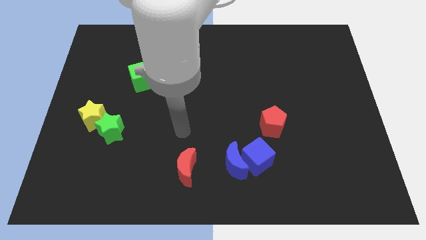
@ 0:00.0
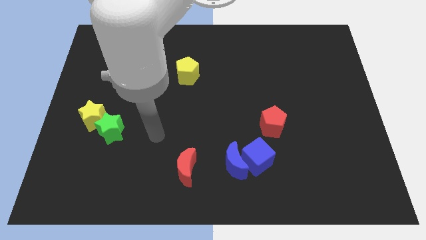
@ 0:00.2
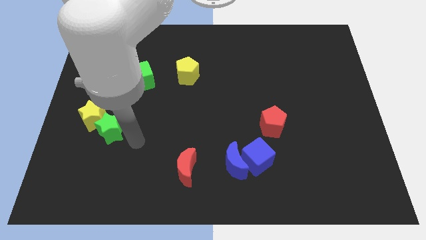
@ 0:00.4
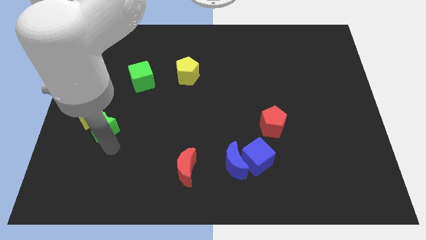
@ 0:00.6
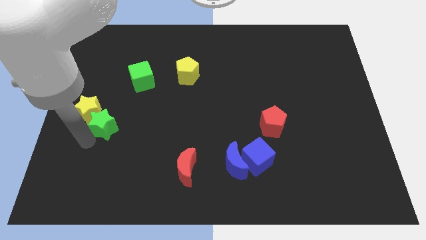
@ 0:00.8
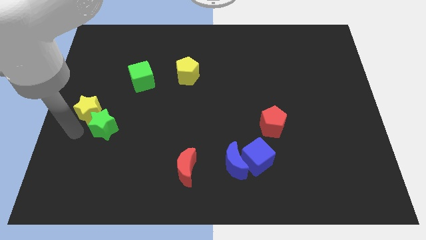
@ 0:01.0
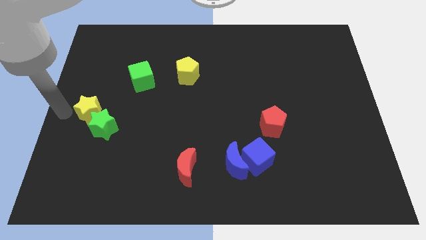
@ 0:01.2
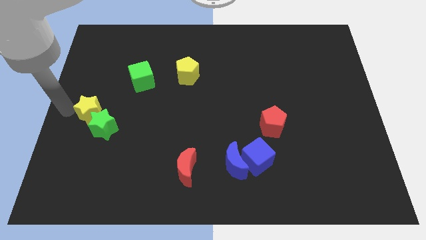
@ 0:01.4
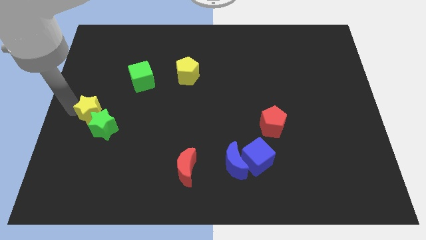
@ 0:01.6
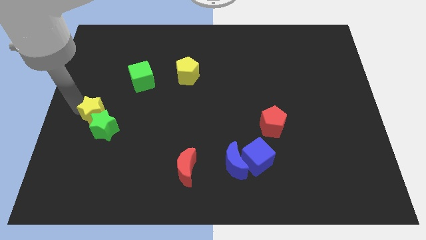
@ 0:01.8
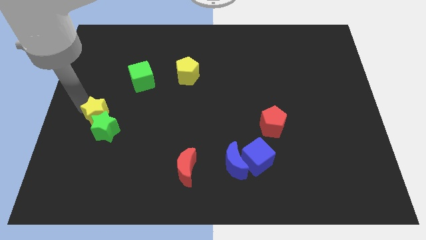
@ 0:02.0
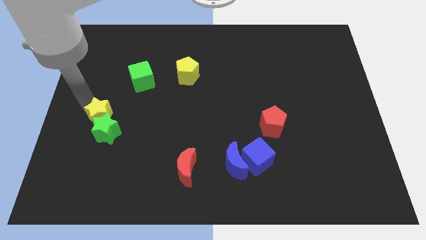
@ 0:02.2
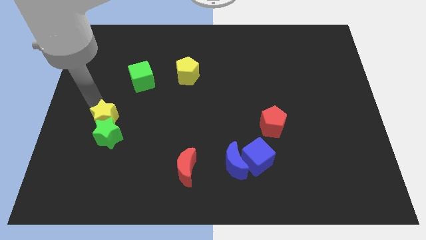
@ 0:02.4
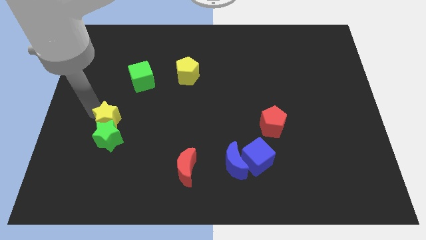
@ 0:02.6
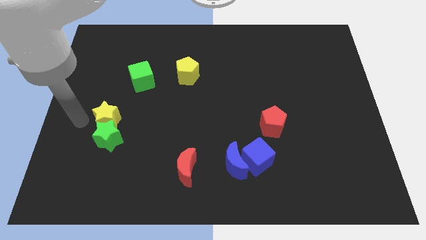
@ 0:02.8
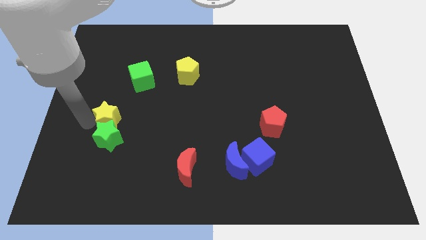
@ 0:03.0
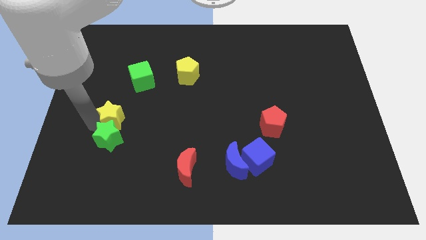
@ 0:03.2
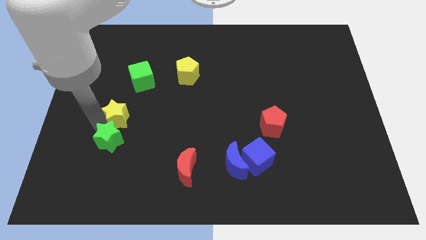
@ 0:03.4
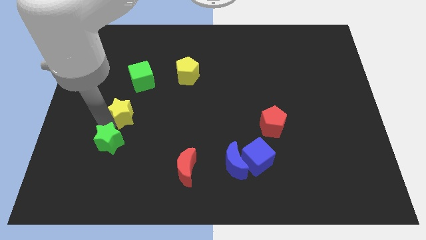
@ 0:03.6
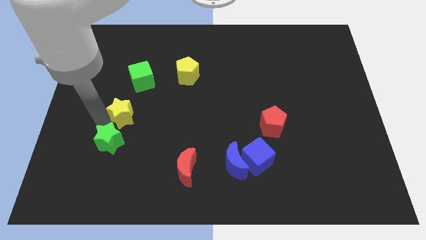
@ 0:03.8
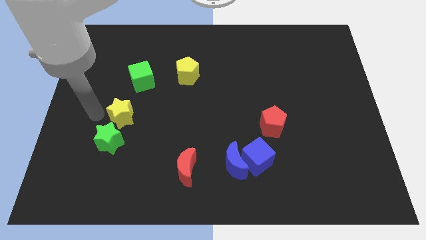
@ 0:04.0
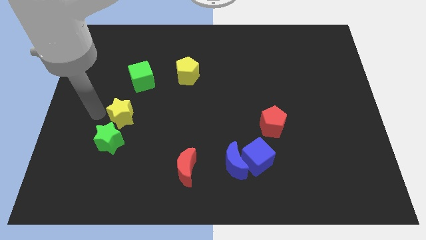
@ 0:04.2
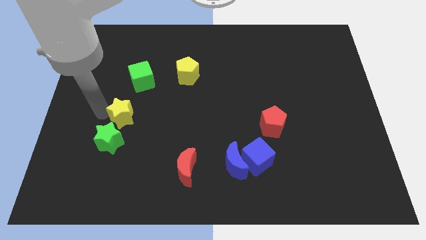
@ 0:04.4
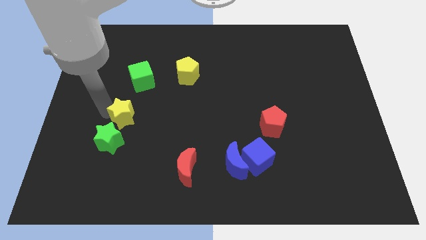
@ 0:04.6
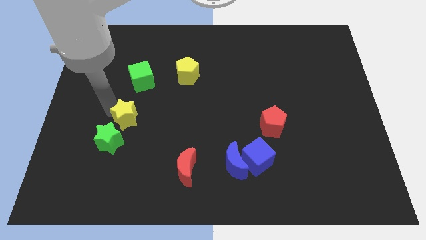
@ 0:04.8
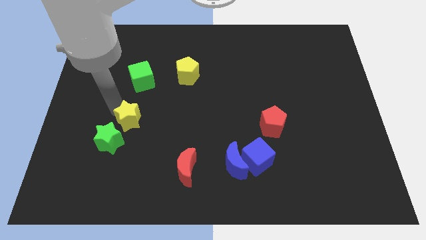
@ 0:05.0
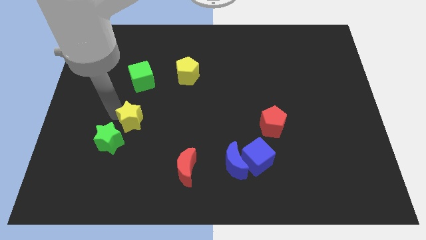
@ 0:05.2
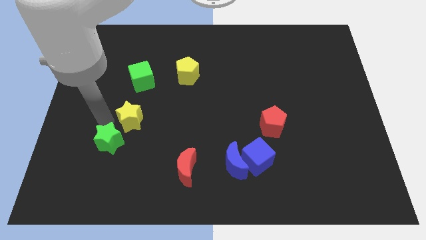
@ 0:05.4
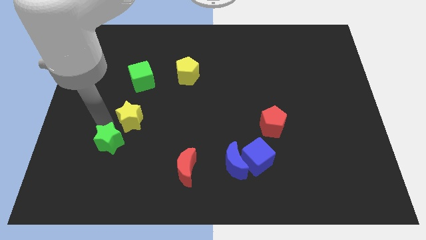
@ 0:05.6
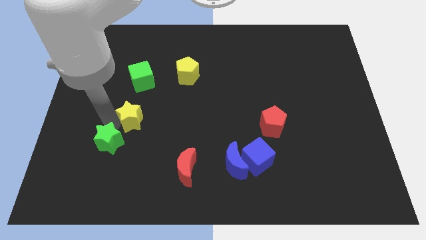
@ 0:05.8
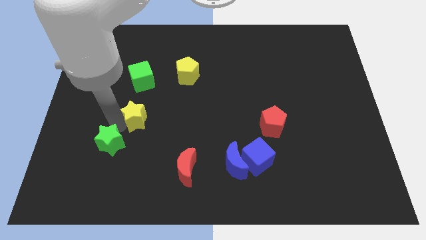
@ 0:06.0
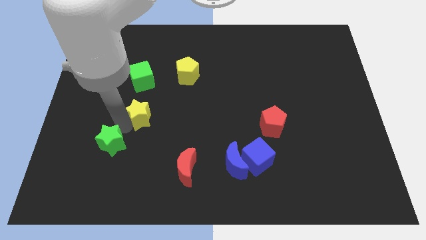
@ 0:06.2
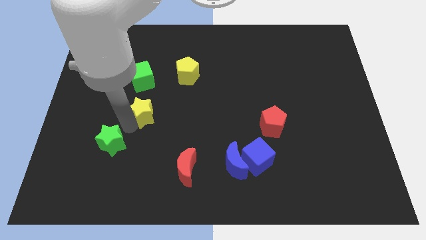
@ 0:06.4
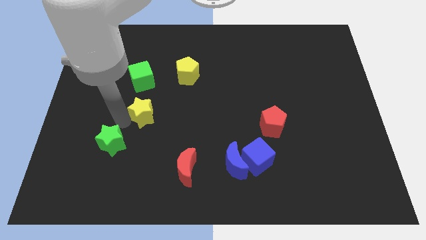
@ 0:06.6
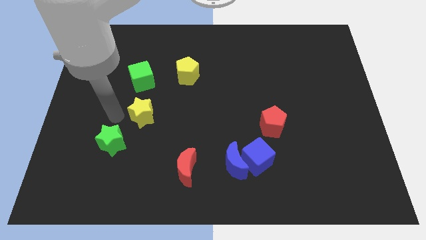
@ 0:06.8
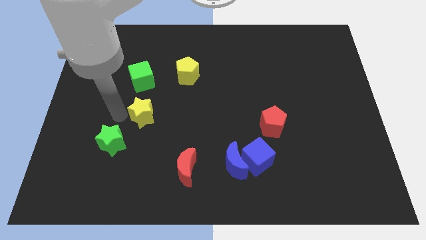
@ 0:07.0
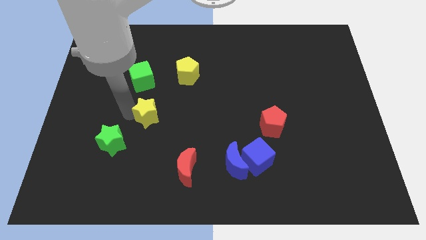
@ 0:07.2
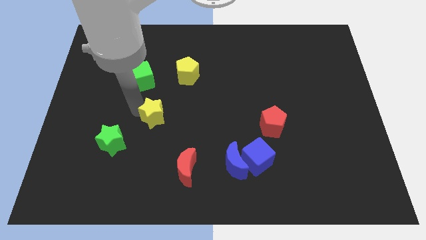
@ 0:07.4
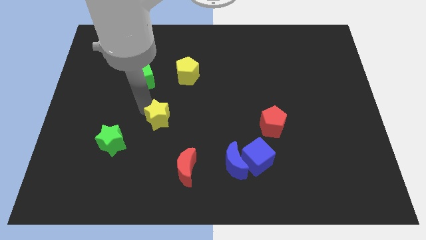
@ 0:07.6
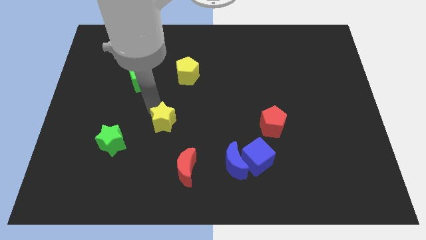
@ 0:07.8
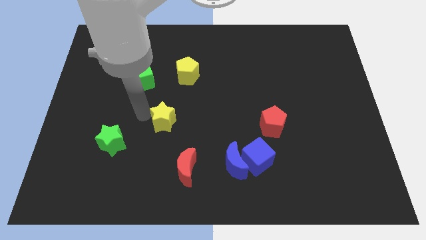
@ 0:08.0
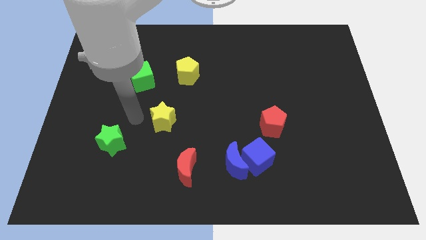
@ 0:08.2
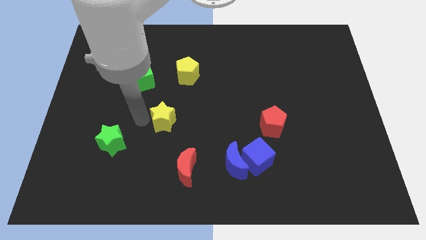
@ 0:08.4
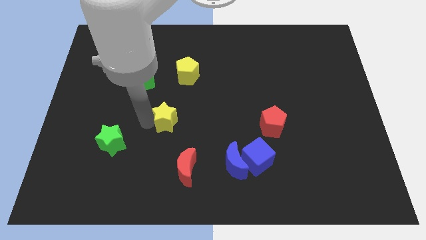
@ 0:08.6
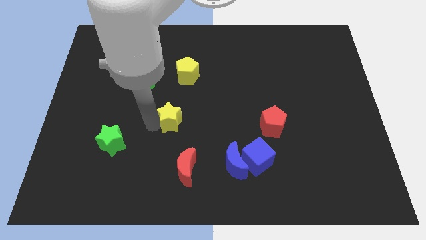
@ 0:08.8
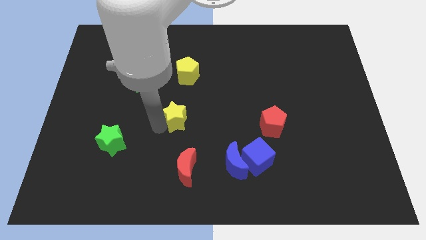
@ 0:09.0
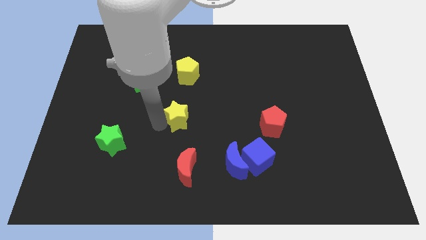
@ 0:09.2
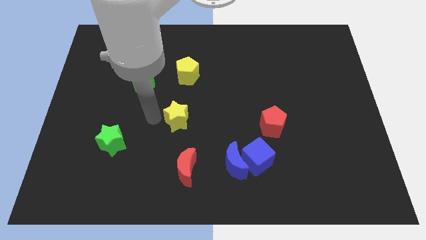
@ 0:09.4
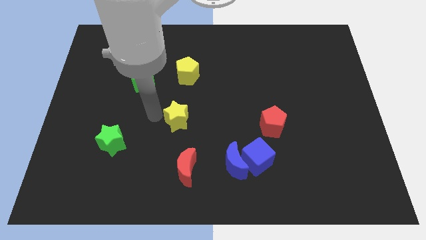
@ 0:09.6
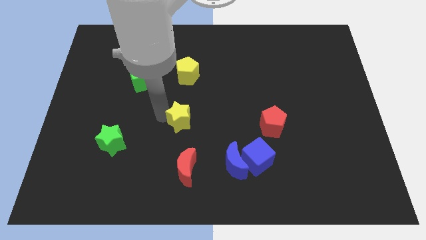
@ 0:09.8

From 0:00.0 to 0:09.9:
move the yellow star to the right

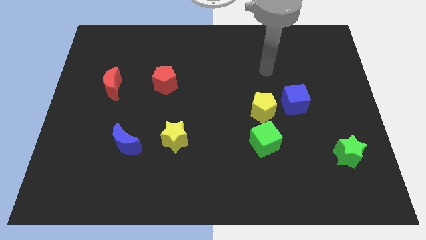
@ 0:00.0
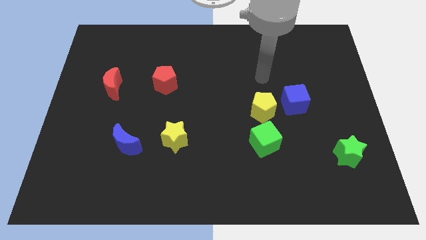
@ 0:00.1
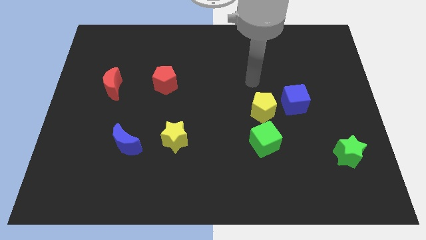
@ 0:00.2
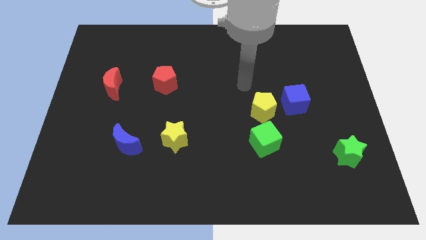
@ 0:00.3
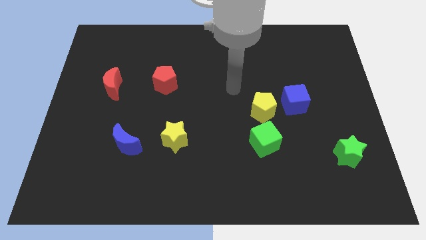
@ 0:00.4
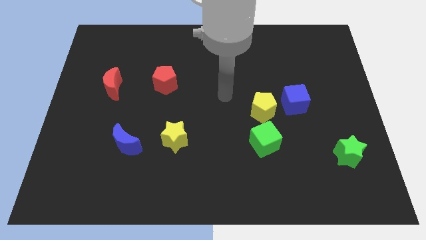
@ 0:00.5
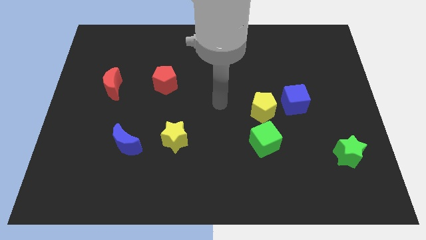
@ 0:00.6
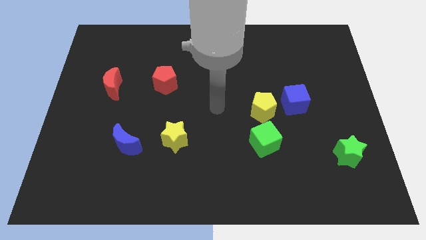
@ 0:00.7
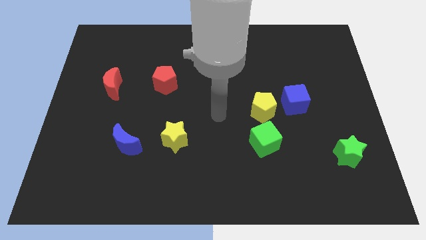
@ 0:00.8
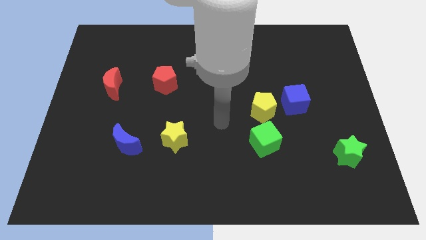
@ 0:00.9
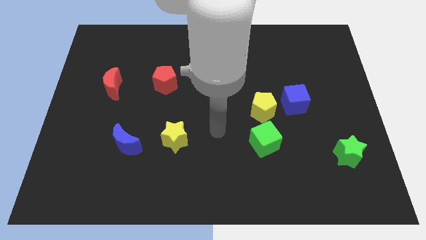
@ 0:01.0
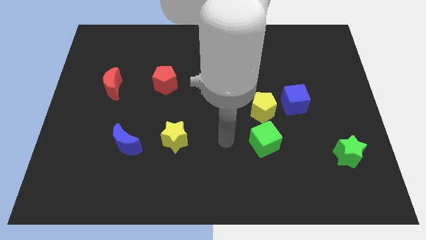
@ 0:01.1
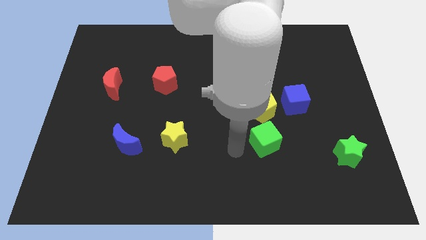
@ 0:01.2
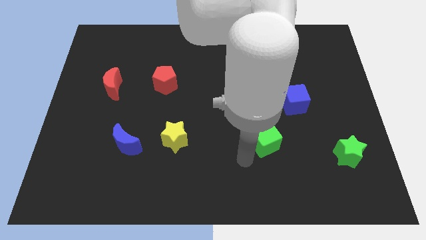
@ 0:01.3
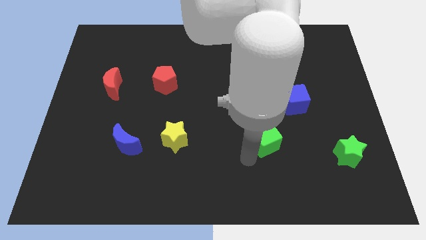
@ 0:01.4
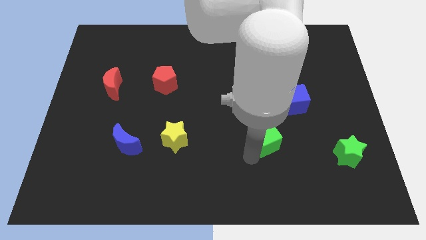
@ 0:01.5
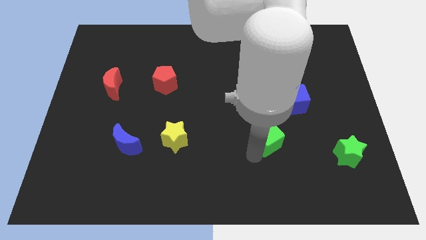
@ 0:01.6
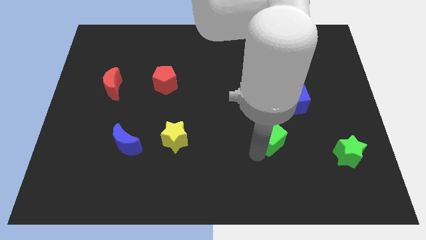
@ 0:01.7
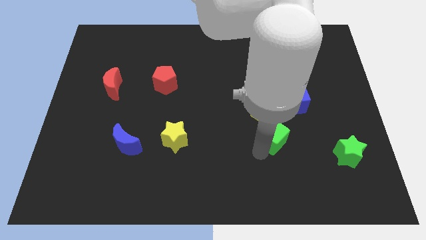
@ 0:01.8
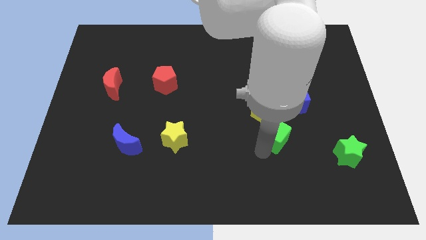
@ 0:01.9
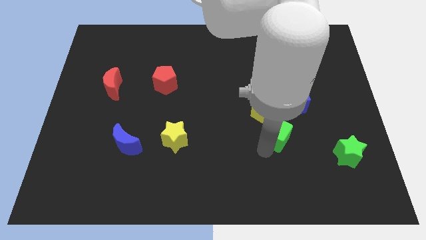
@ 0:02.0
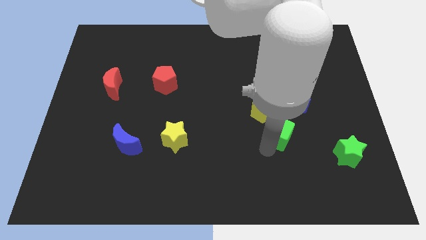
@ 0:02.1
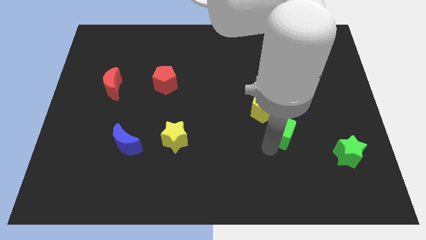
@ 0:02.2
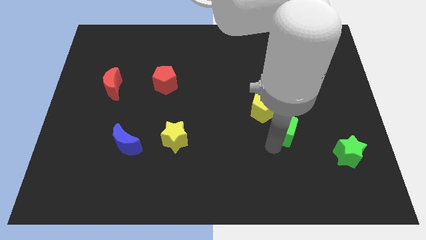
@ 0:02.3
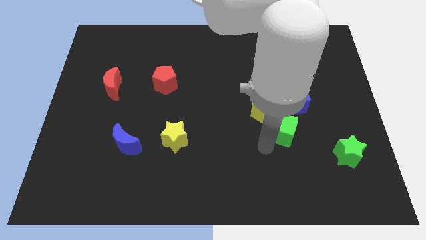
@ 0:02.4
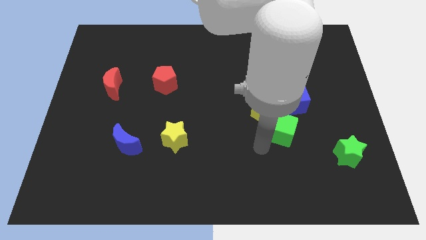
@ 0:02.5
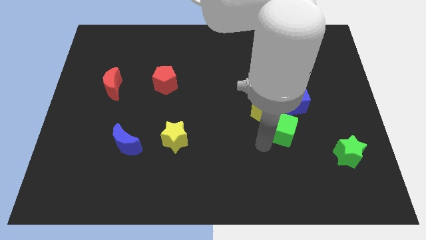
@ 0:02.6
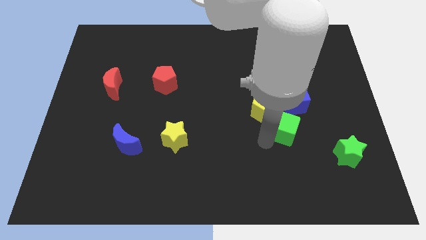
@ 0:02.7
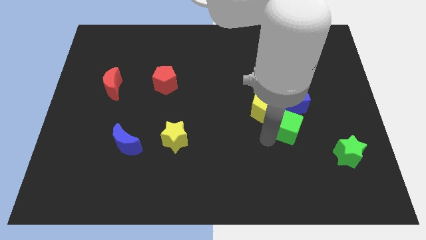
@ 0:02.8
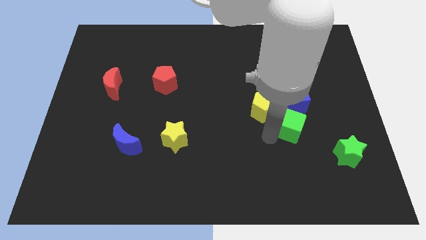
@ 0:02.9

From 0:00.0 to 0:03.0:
slide the green cube up and then right somewhat

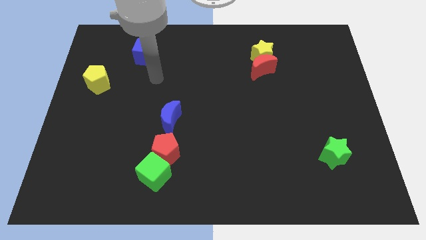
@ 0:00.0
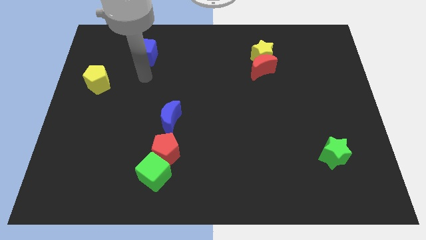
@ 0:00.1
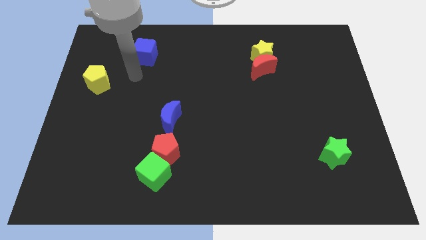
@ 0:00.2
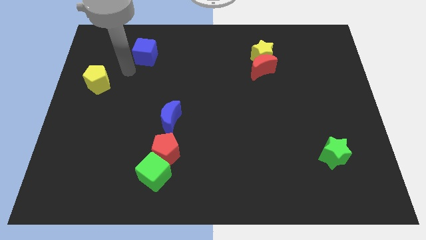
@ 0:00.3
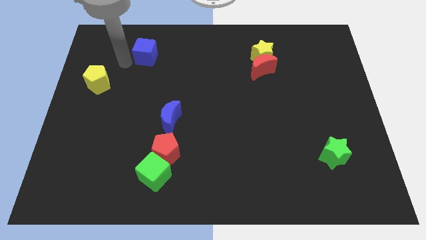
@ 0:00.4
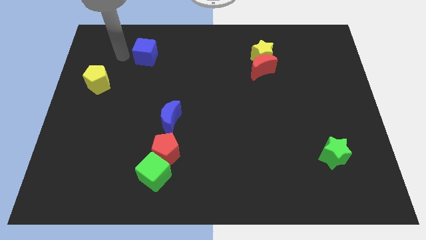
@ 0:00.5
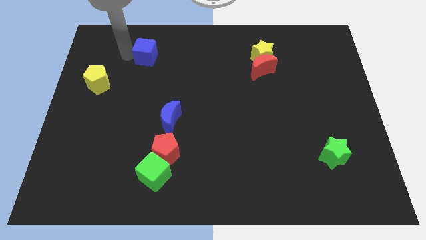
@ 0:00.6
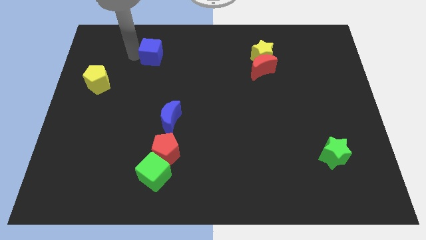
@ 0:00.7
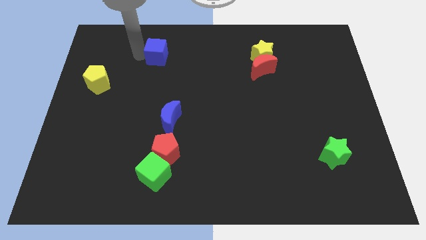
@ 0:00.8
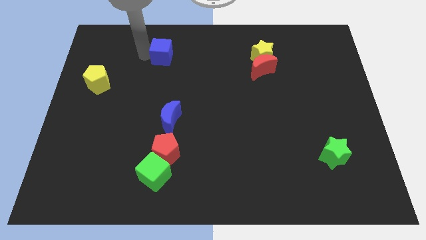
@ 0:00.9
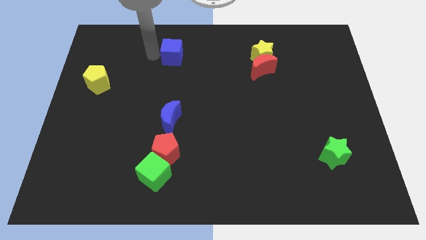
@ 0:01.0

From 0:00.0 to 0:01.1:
slide the blue cube to the right slightly
